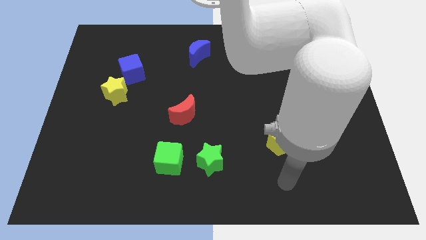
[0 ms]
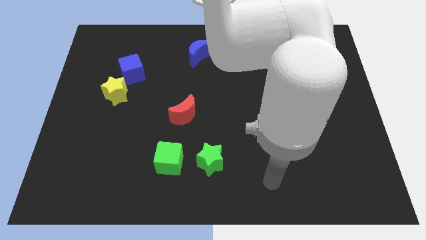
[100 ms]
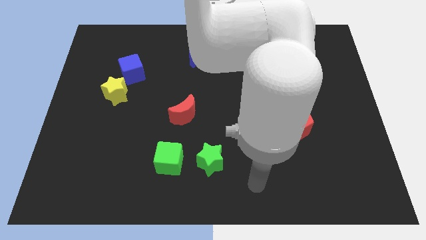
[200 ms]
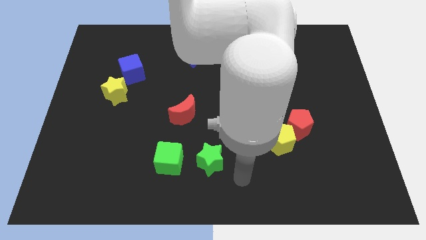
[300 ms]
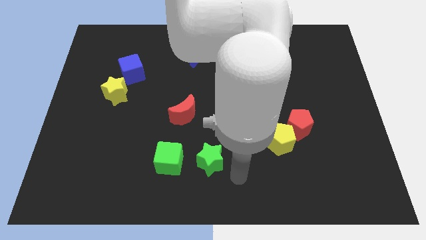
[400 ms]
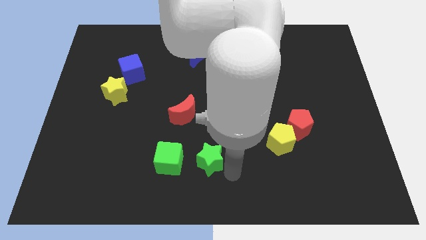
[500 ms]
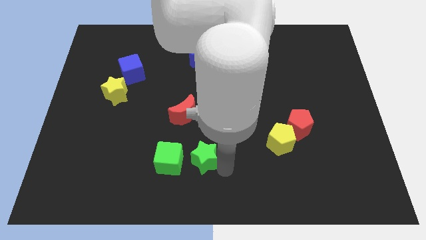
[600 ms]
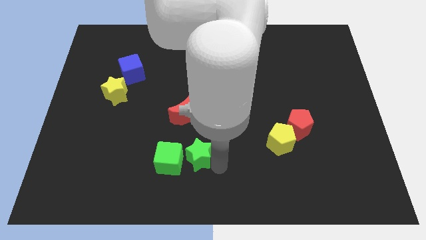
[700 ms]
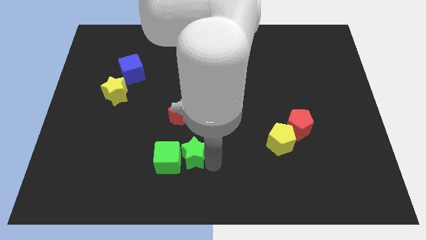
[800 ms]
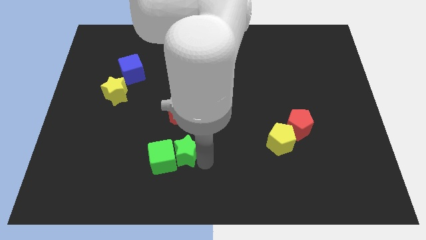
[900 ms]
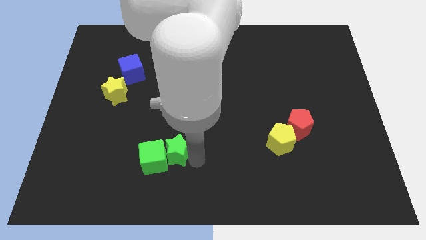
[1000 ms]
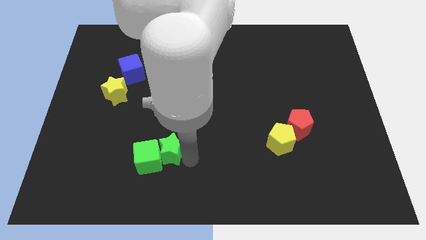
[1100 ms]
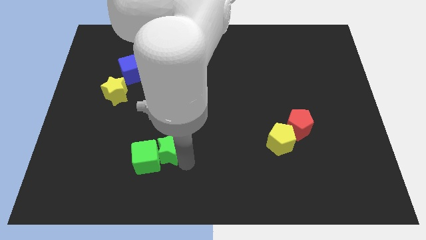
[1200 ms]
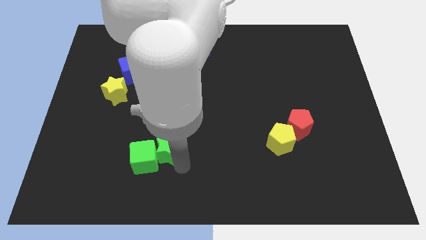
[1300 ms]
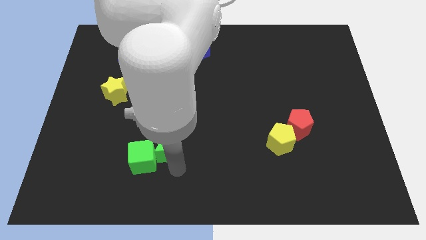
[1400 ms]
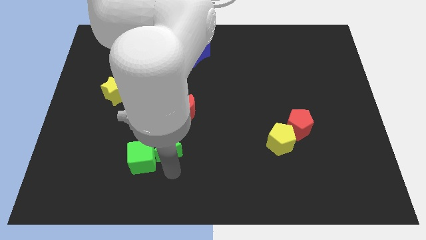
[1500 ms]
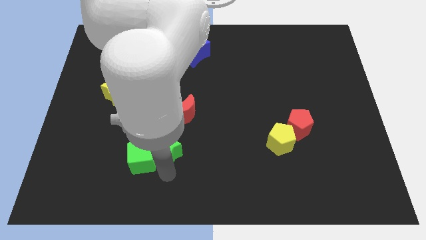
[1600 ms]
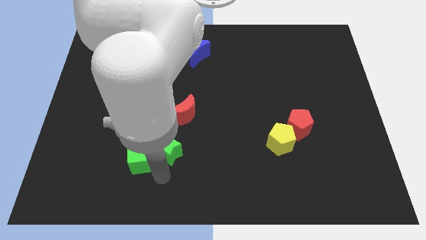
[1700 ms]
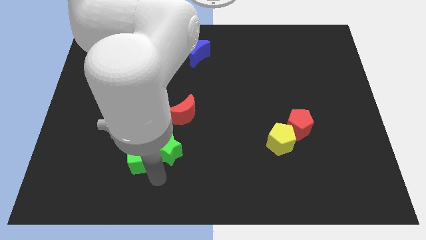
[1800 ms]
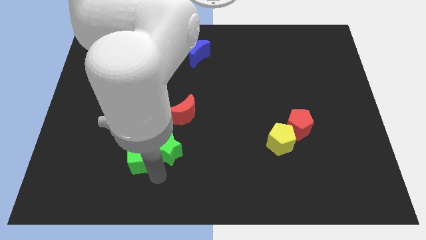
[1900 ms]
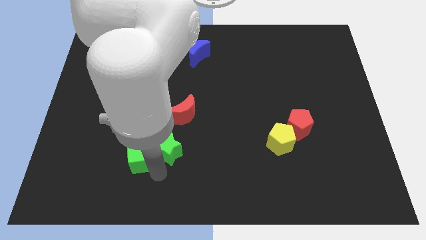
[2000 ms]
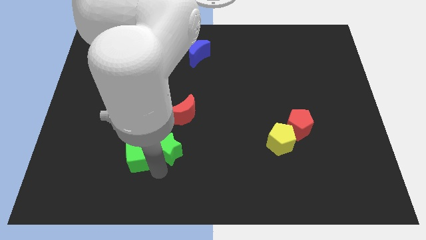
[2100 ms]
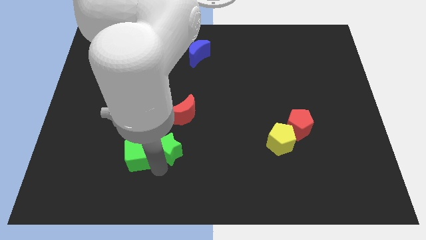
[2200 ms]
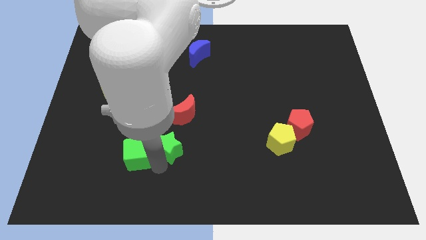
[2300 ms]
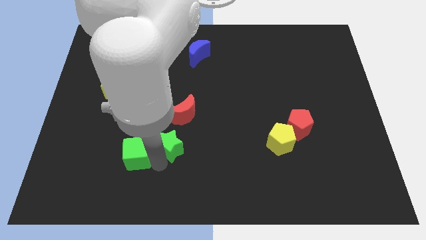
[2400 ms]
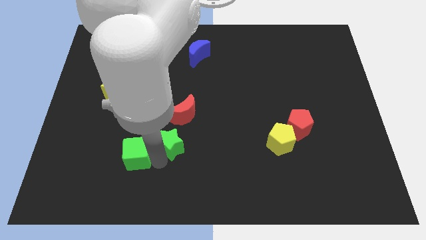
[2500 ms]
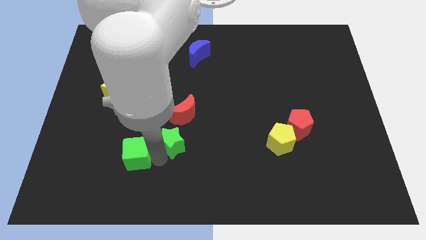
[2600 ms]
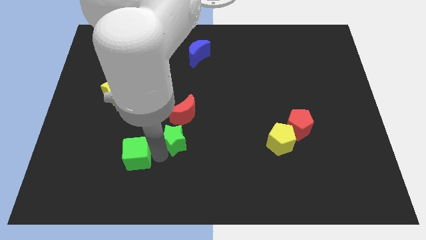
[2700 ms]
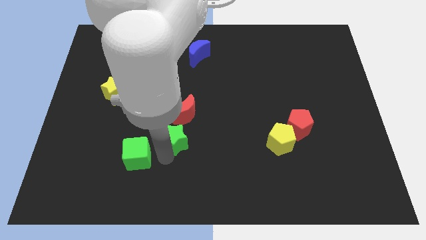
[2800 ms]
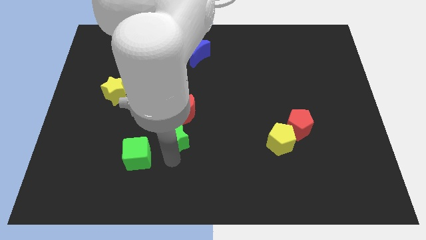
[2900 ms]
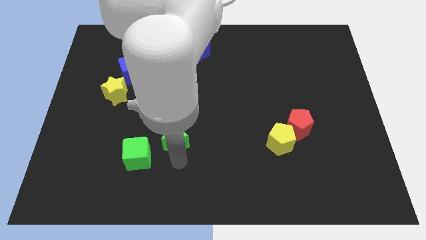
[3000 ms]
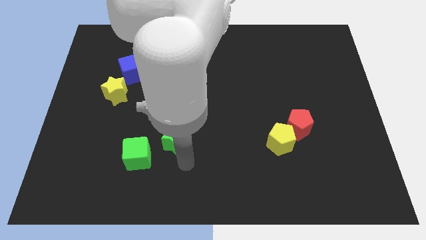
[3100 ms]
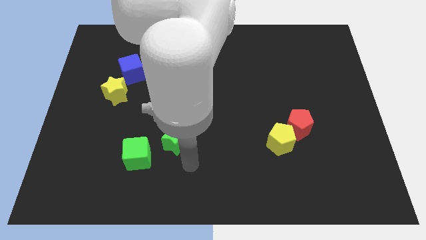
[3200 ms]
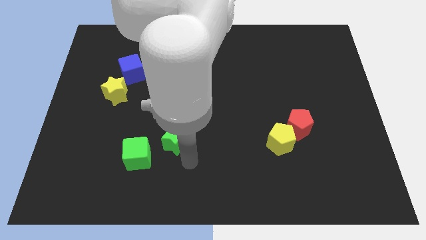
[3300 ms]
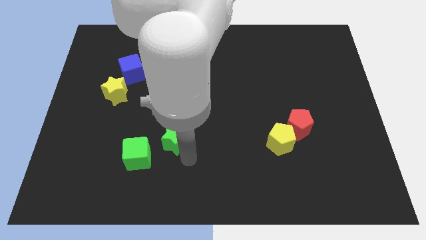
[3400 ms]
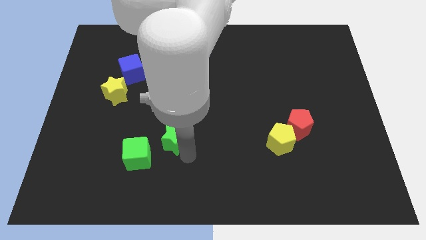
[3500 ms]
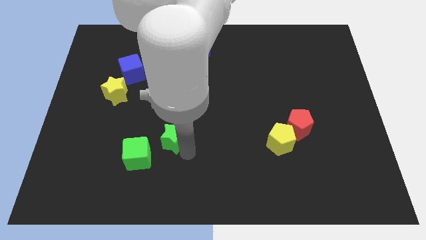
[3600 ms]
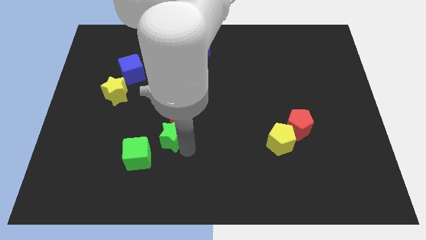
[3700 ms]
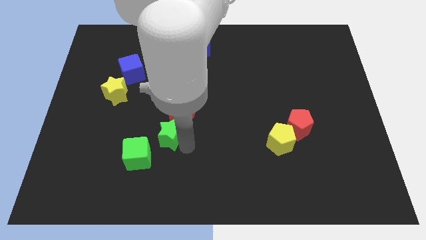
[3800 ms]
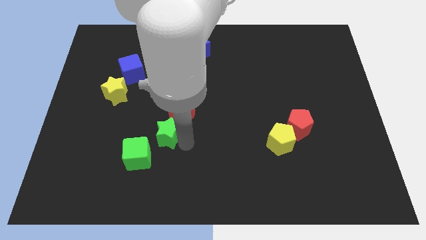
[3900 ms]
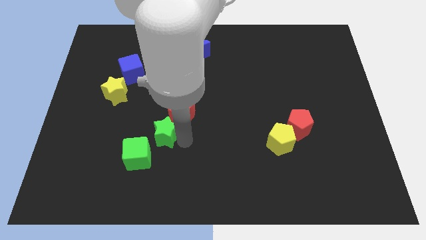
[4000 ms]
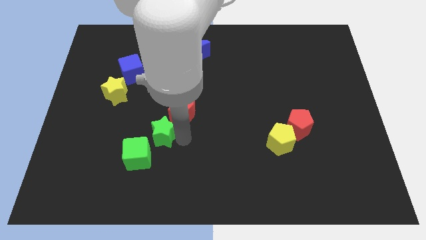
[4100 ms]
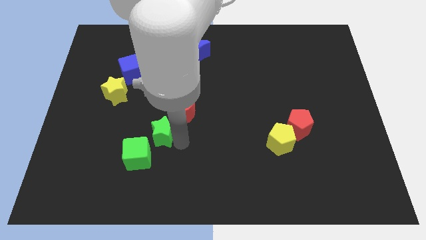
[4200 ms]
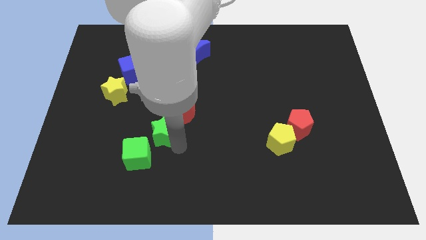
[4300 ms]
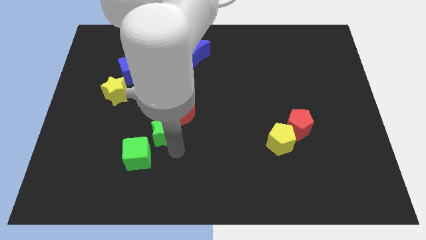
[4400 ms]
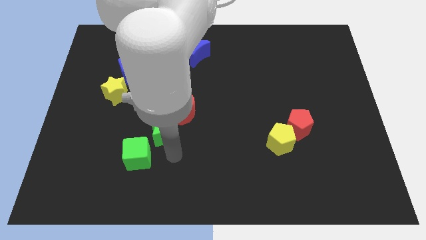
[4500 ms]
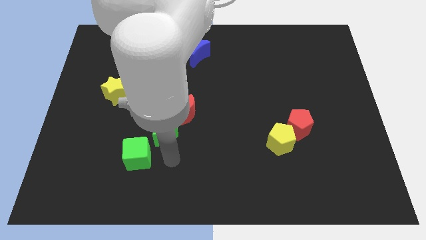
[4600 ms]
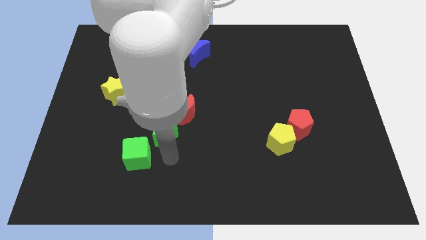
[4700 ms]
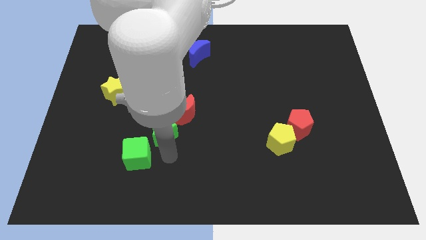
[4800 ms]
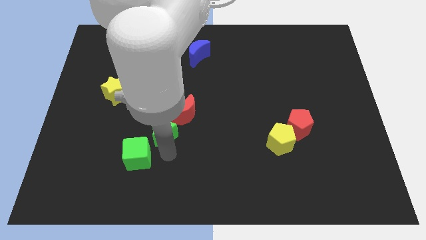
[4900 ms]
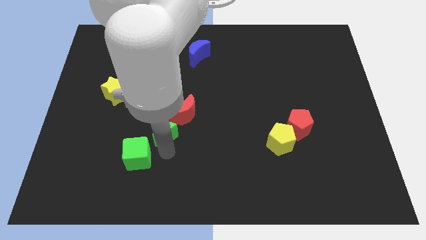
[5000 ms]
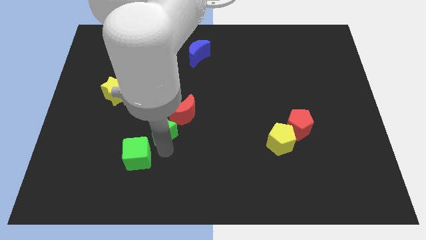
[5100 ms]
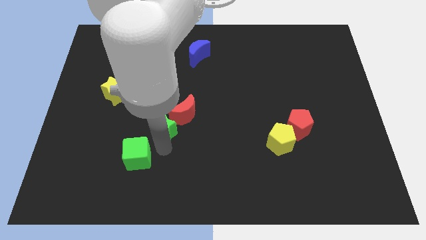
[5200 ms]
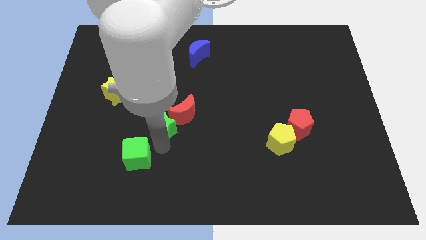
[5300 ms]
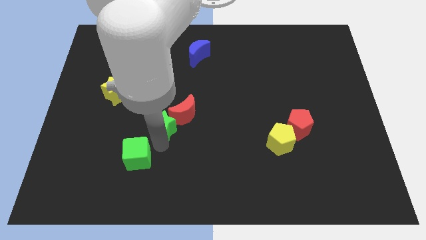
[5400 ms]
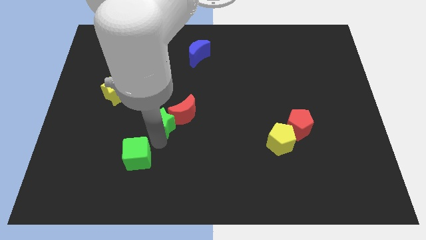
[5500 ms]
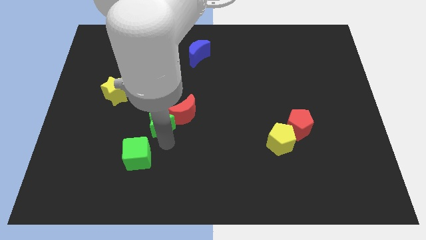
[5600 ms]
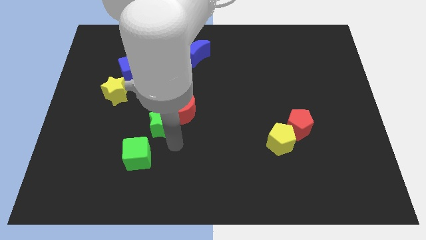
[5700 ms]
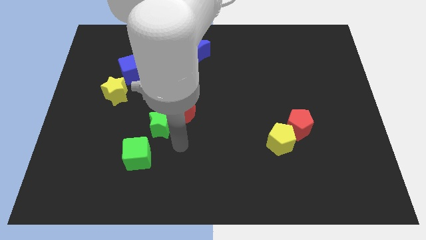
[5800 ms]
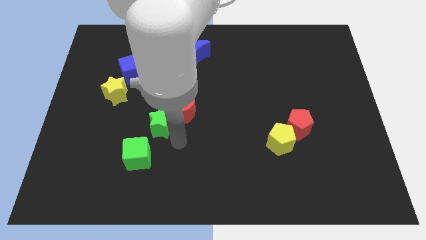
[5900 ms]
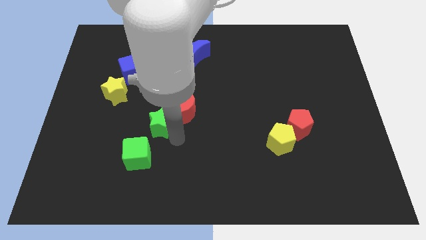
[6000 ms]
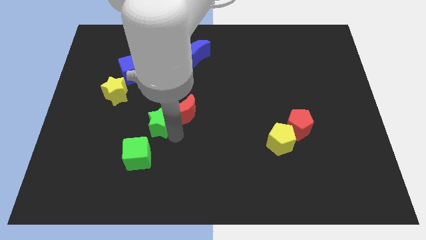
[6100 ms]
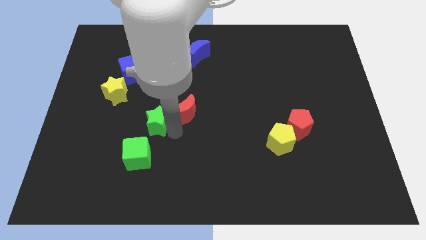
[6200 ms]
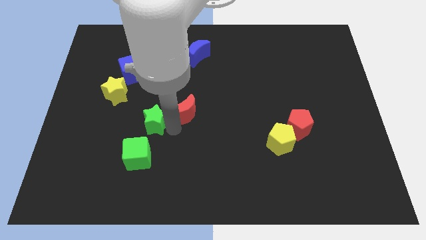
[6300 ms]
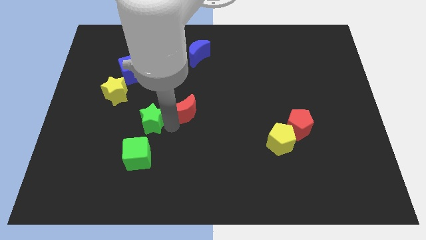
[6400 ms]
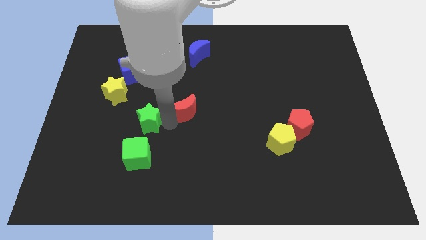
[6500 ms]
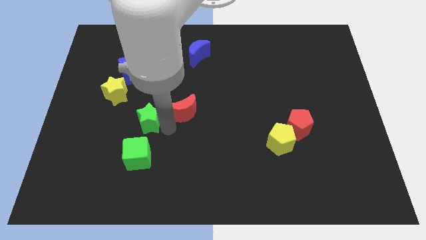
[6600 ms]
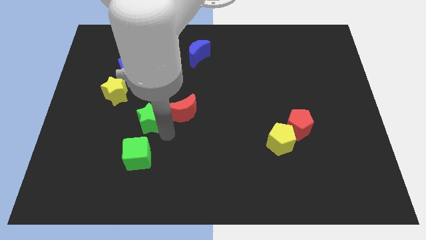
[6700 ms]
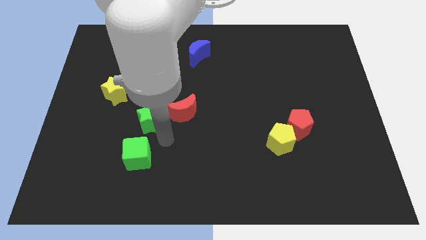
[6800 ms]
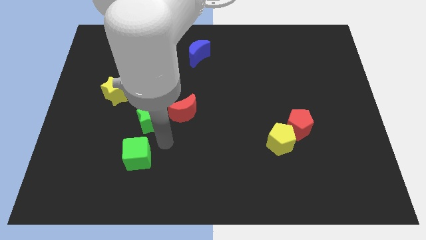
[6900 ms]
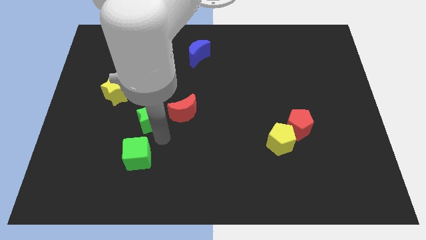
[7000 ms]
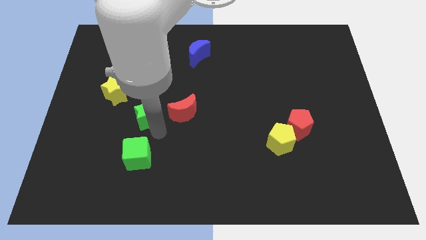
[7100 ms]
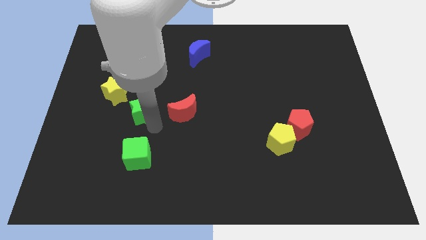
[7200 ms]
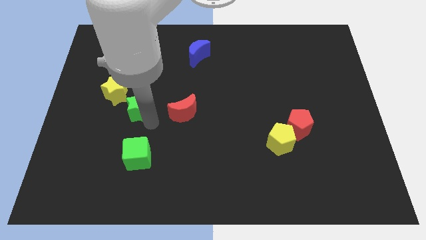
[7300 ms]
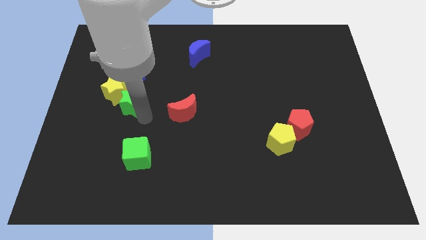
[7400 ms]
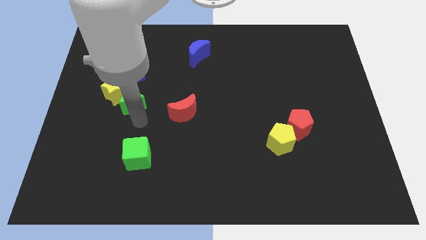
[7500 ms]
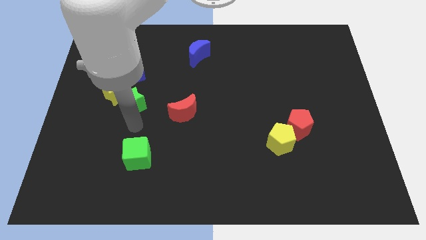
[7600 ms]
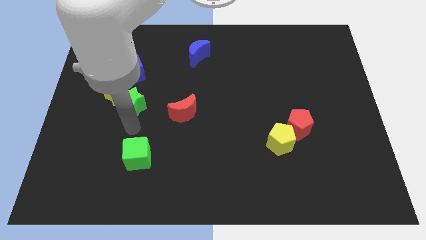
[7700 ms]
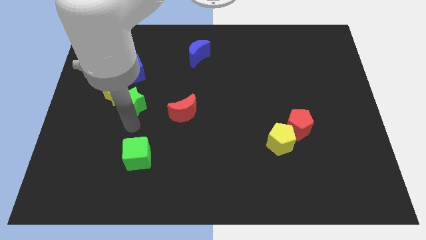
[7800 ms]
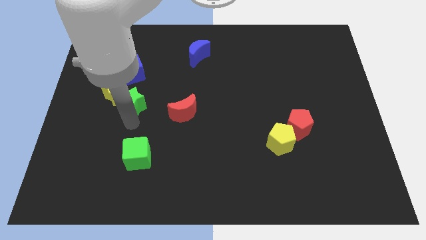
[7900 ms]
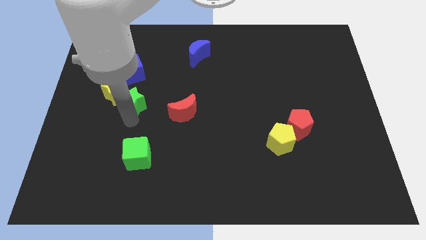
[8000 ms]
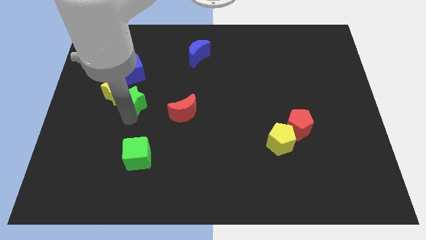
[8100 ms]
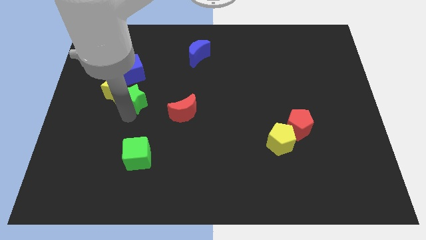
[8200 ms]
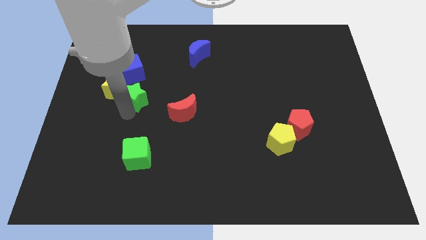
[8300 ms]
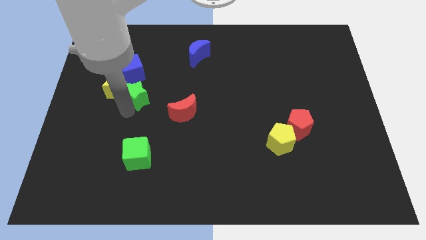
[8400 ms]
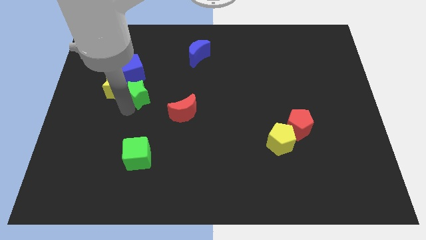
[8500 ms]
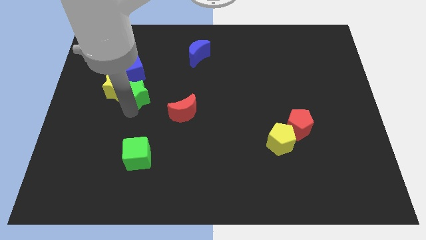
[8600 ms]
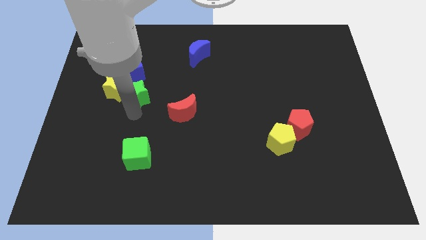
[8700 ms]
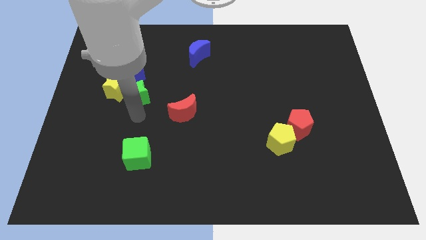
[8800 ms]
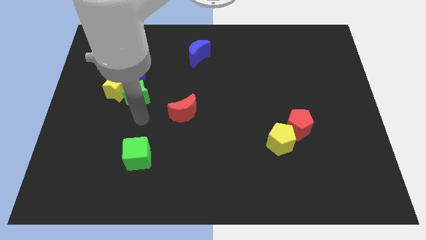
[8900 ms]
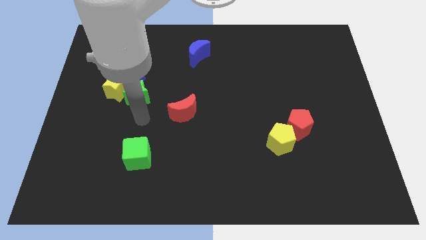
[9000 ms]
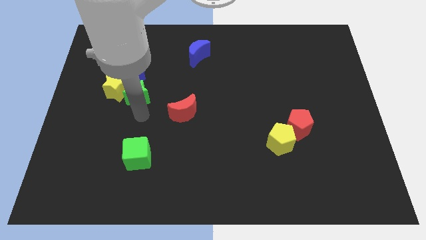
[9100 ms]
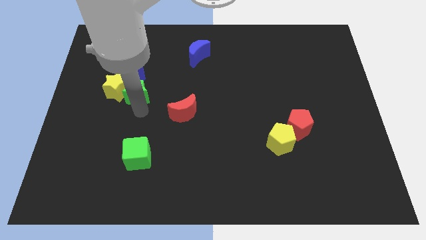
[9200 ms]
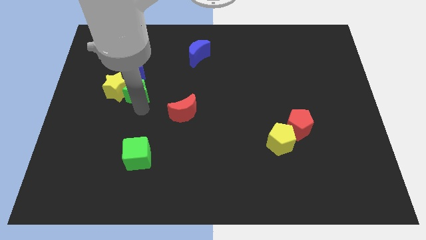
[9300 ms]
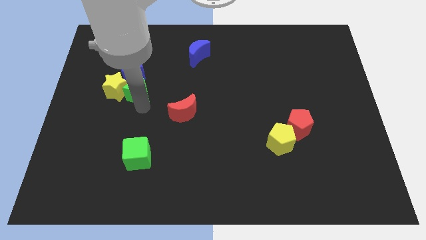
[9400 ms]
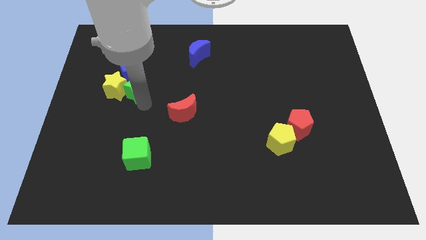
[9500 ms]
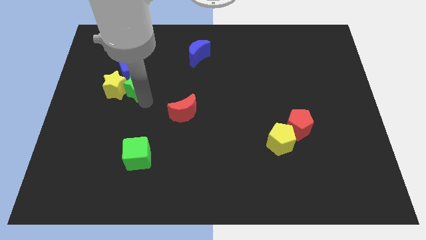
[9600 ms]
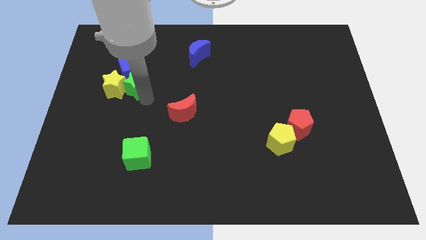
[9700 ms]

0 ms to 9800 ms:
move the green star close to the blue cube
